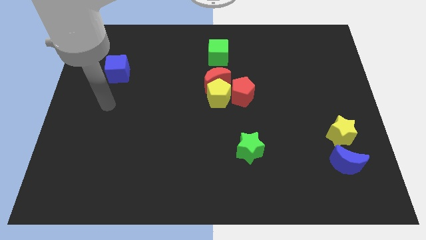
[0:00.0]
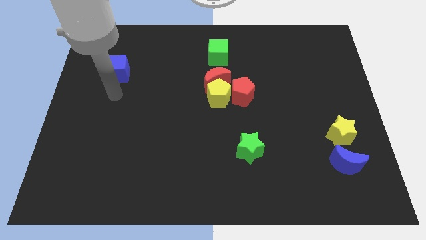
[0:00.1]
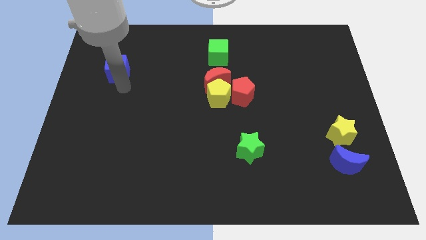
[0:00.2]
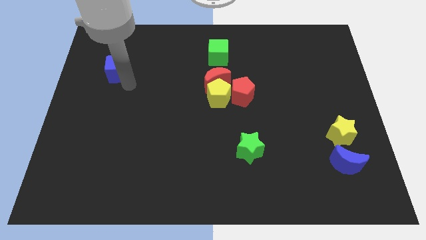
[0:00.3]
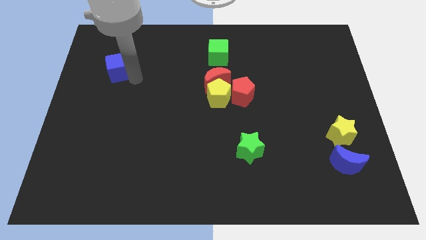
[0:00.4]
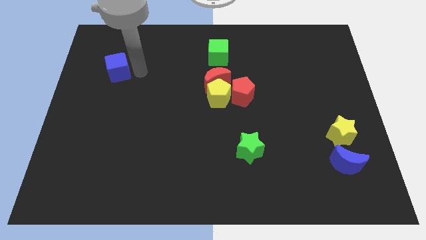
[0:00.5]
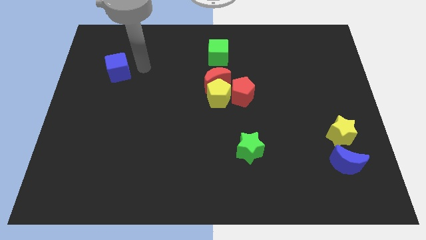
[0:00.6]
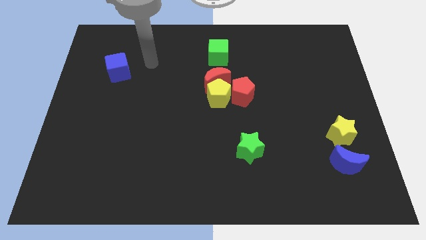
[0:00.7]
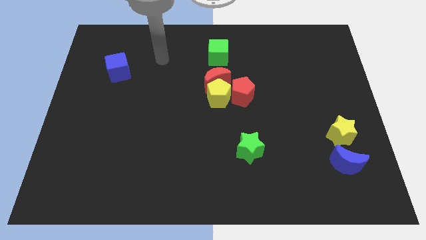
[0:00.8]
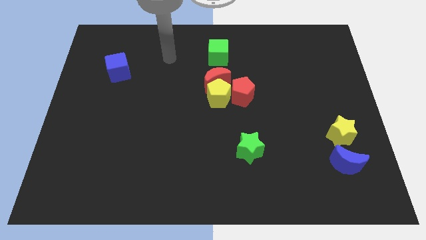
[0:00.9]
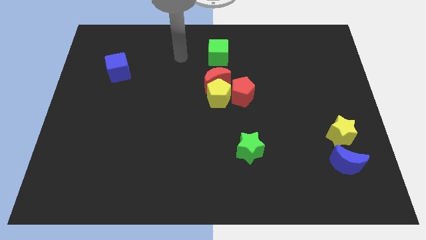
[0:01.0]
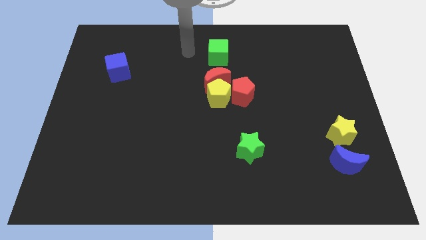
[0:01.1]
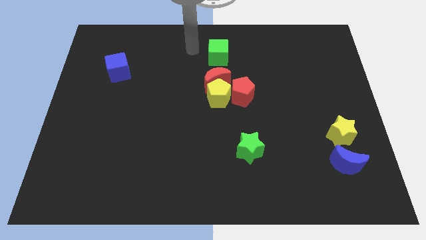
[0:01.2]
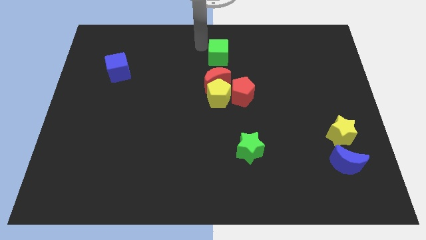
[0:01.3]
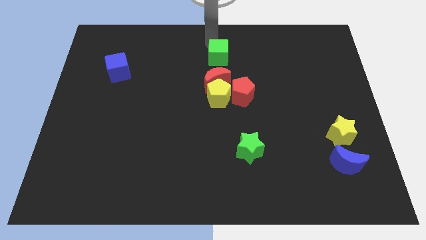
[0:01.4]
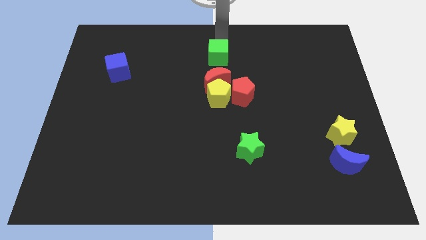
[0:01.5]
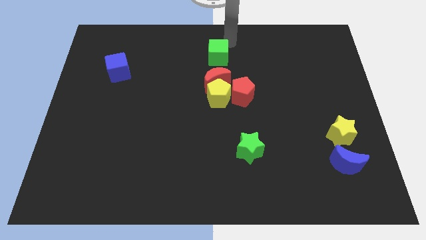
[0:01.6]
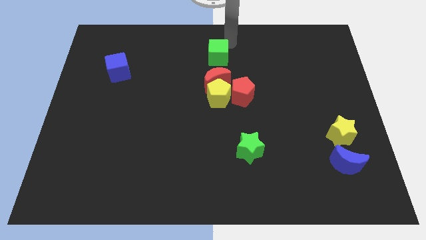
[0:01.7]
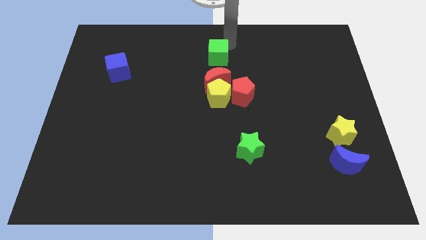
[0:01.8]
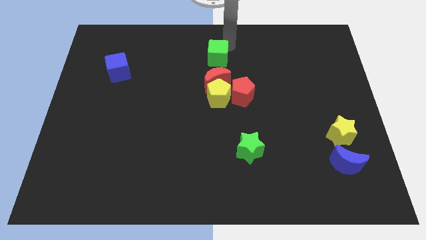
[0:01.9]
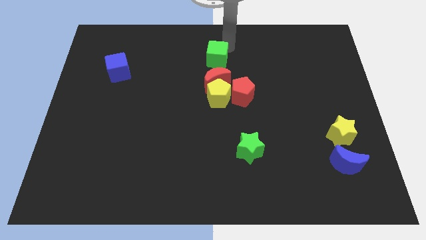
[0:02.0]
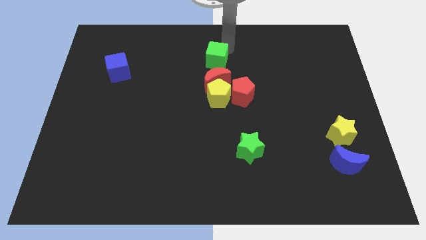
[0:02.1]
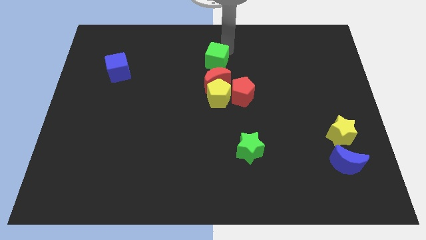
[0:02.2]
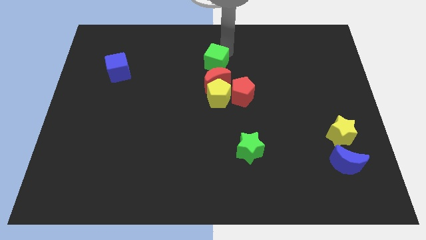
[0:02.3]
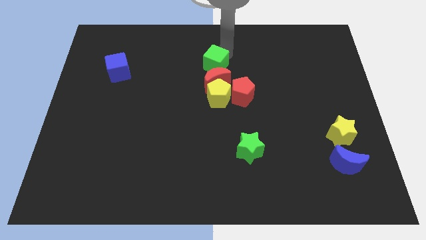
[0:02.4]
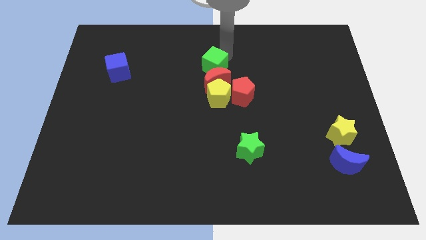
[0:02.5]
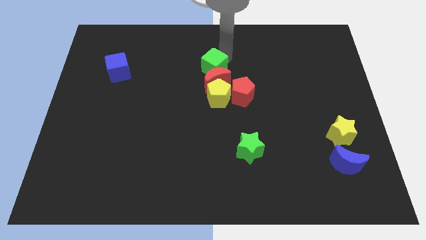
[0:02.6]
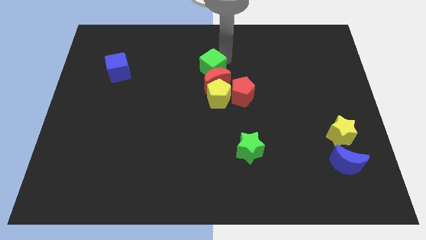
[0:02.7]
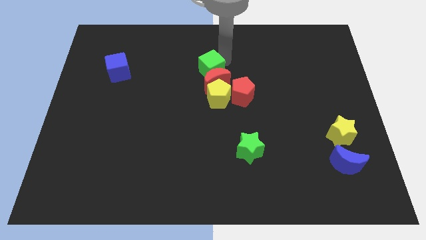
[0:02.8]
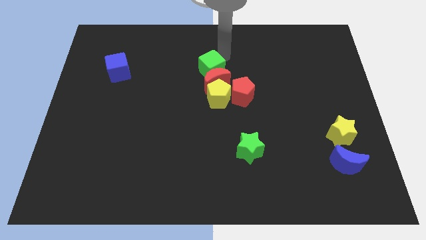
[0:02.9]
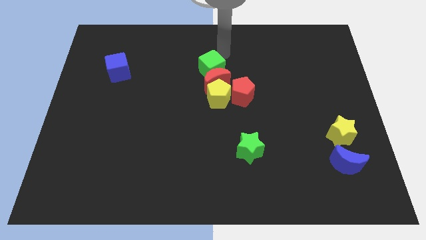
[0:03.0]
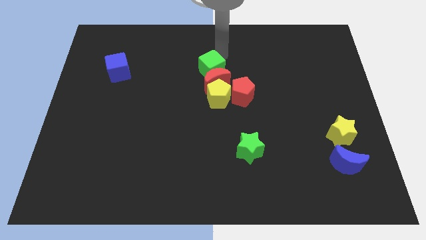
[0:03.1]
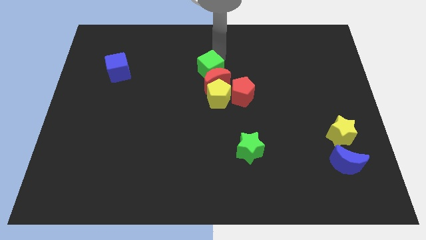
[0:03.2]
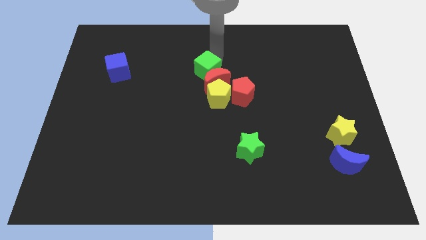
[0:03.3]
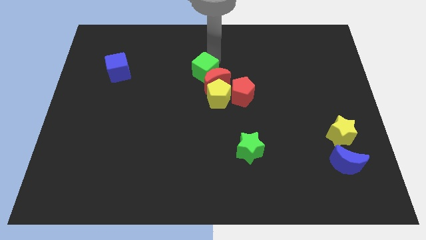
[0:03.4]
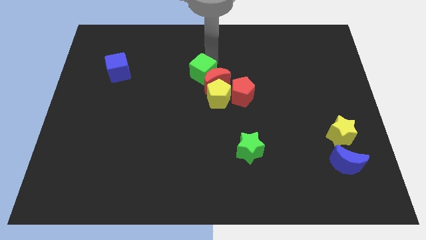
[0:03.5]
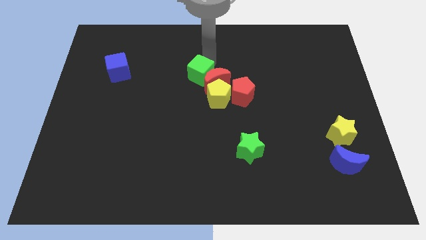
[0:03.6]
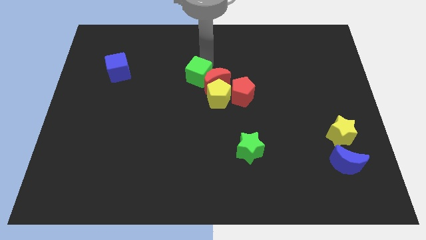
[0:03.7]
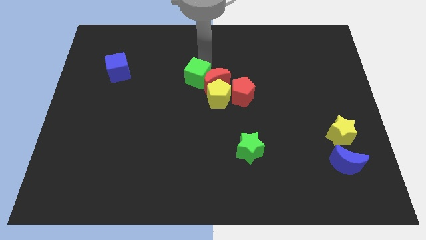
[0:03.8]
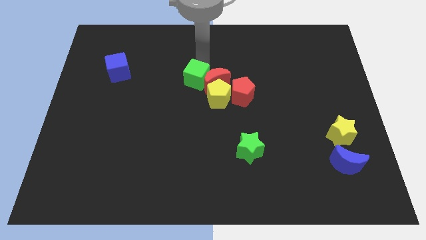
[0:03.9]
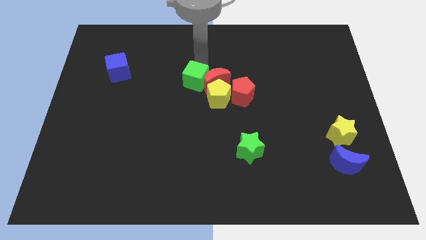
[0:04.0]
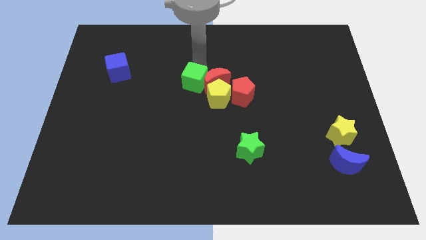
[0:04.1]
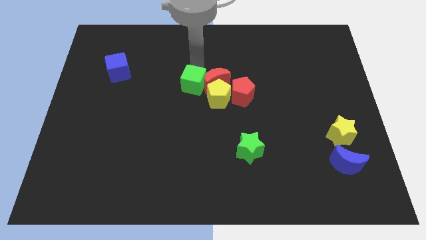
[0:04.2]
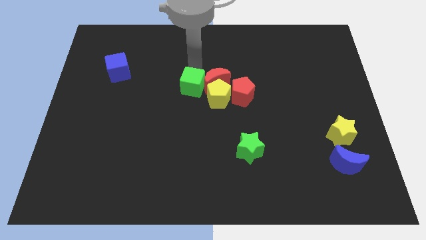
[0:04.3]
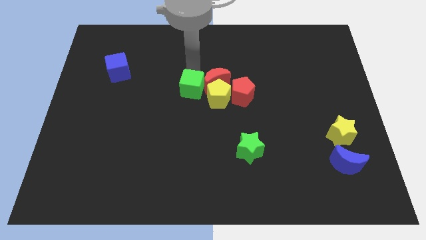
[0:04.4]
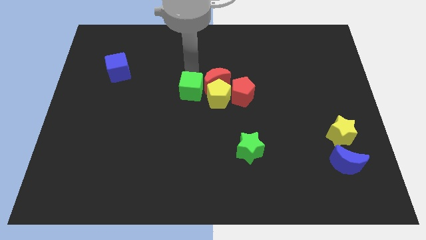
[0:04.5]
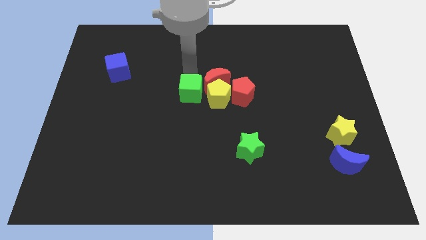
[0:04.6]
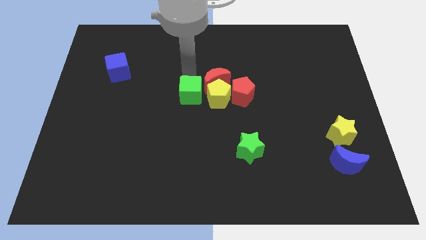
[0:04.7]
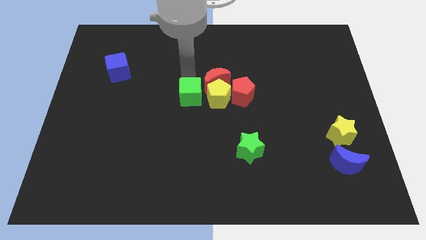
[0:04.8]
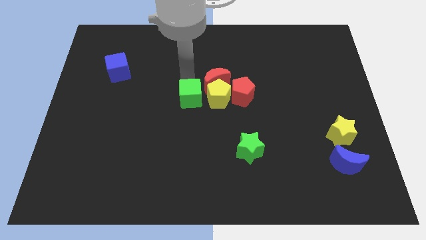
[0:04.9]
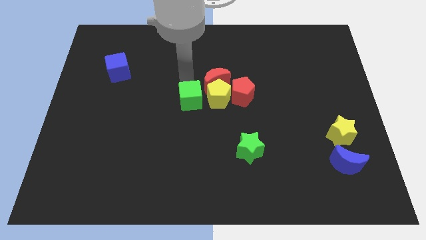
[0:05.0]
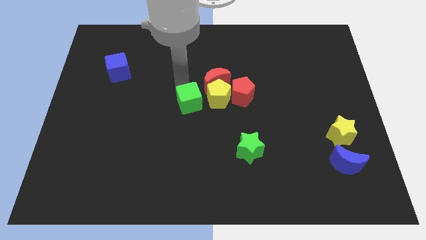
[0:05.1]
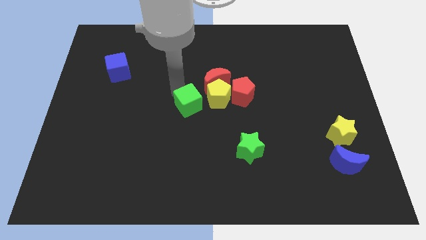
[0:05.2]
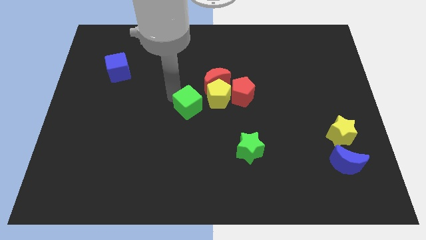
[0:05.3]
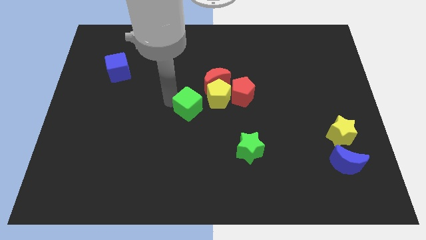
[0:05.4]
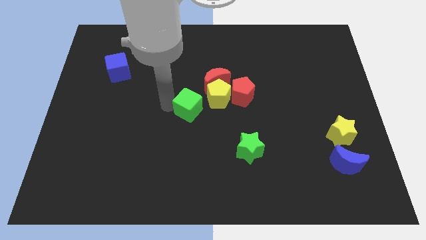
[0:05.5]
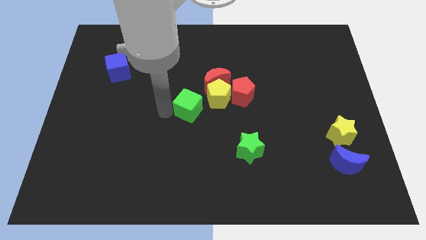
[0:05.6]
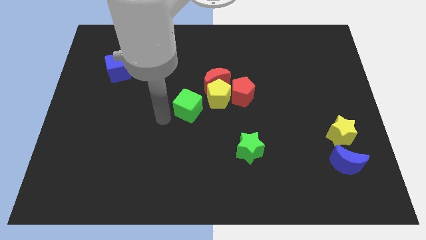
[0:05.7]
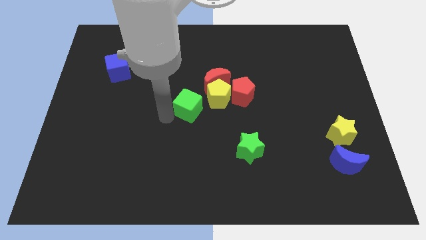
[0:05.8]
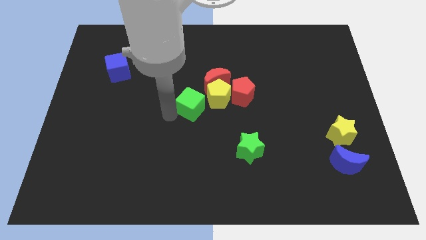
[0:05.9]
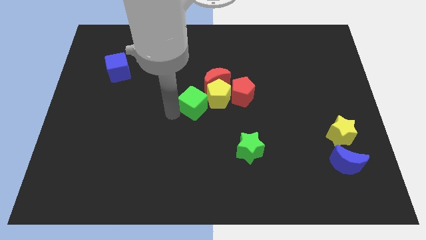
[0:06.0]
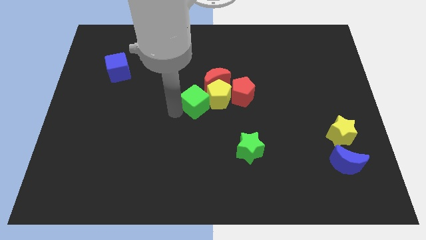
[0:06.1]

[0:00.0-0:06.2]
push the green cube close to the yellow pentagon
